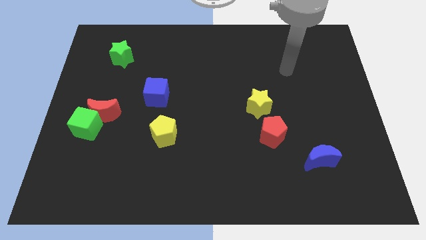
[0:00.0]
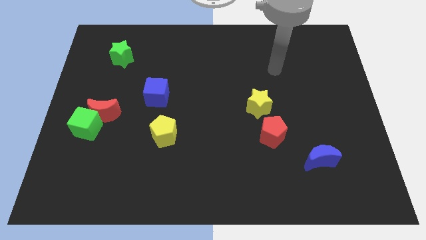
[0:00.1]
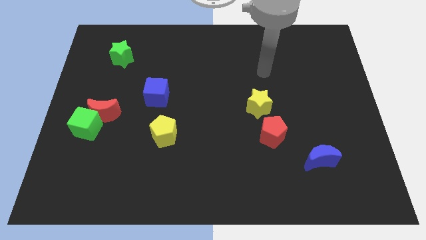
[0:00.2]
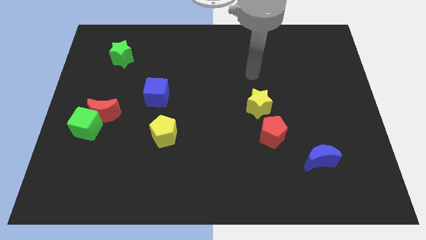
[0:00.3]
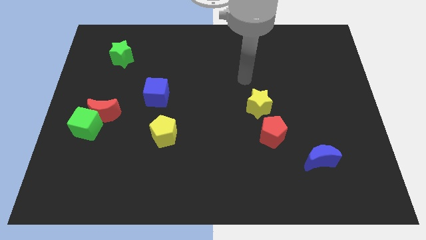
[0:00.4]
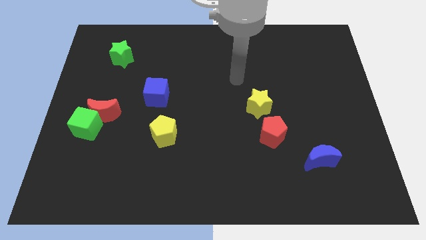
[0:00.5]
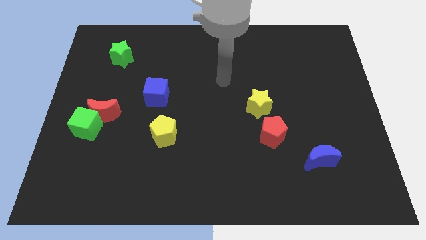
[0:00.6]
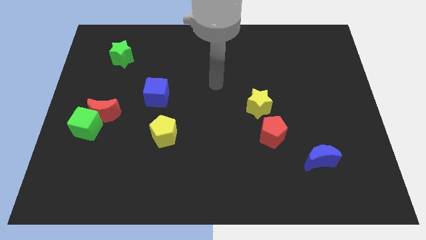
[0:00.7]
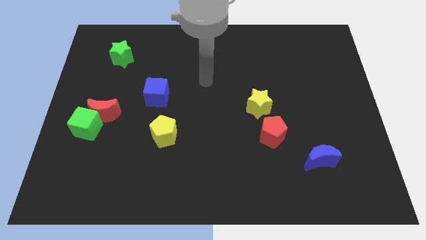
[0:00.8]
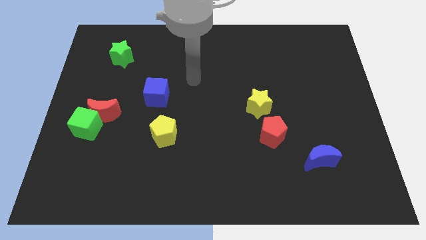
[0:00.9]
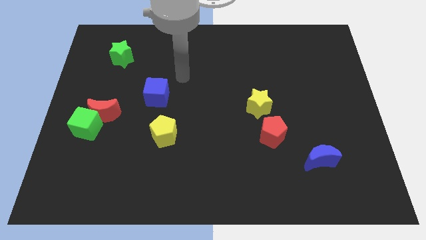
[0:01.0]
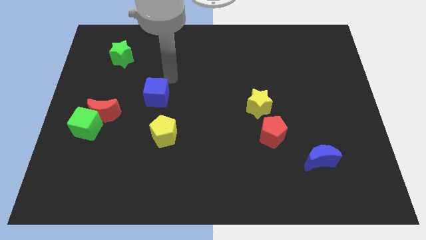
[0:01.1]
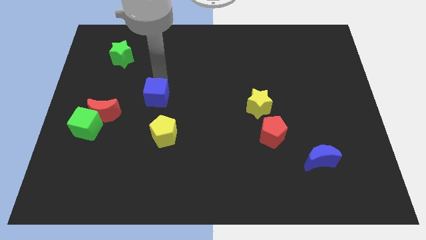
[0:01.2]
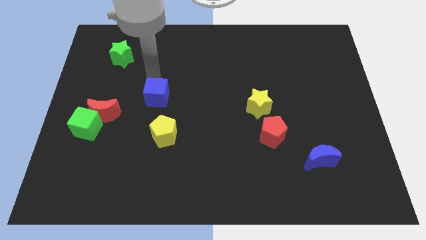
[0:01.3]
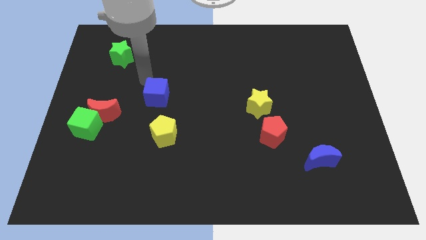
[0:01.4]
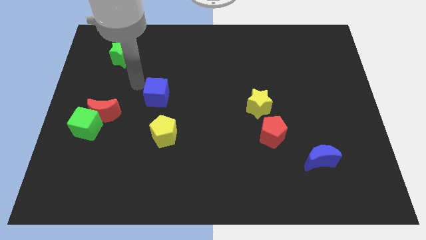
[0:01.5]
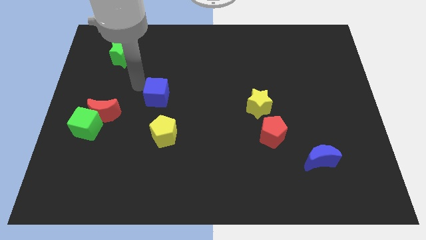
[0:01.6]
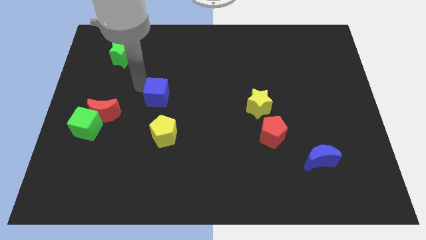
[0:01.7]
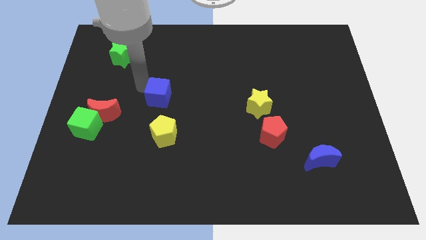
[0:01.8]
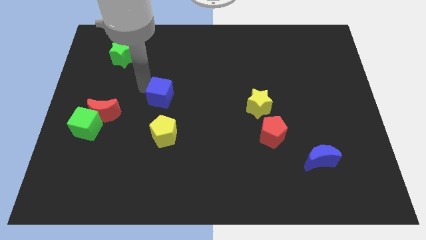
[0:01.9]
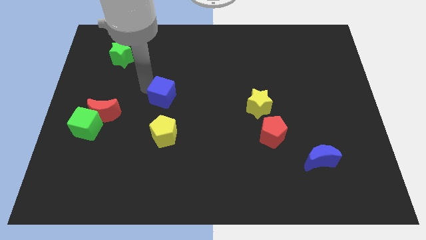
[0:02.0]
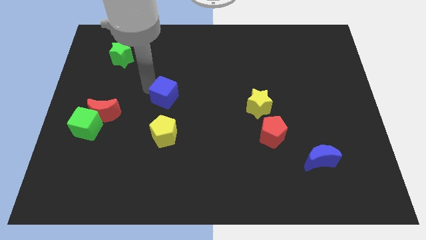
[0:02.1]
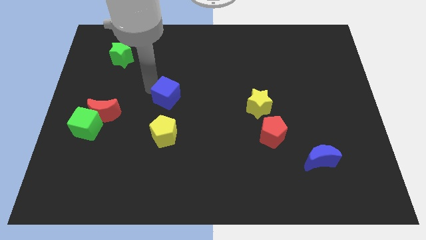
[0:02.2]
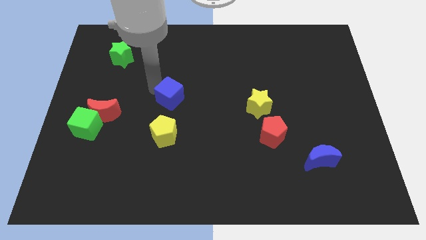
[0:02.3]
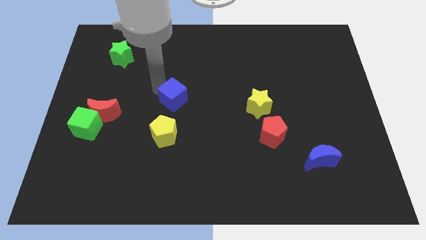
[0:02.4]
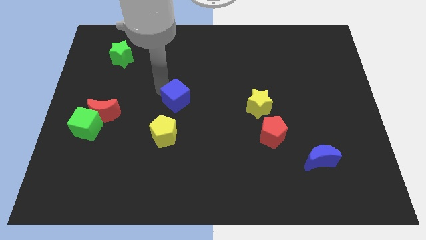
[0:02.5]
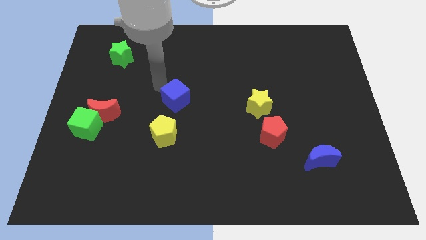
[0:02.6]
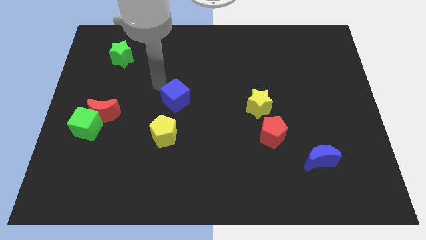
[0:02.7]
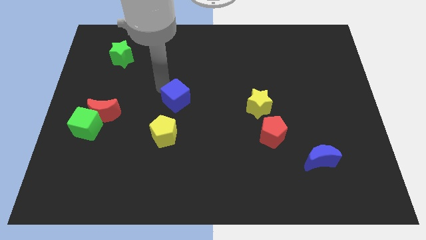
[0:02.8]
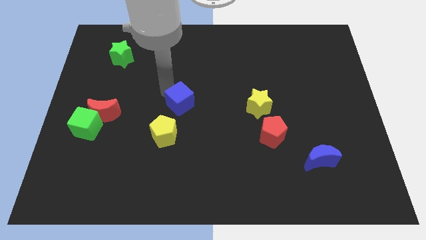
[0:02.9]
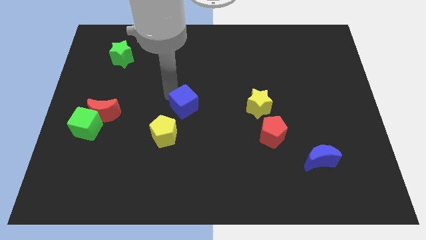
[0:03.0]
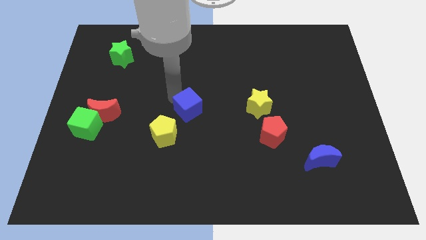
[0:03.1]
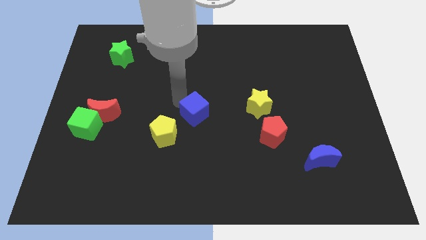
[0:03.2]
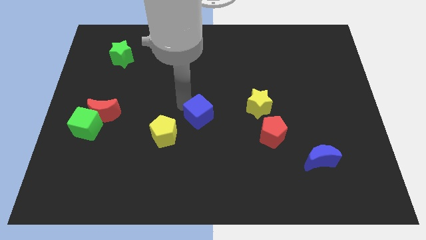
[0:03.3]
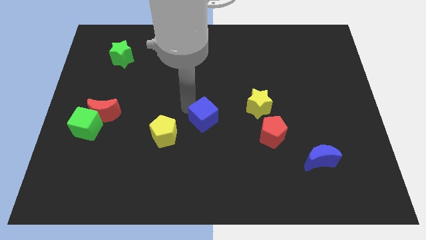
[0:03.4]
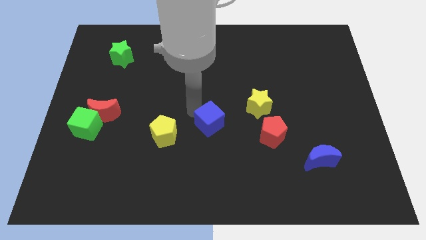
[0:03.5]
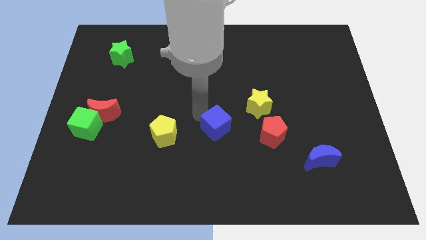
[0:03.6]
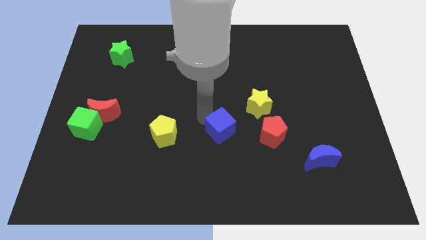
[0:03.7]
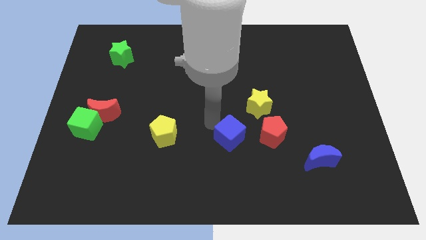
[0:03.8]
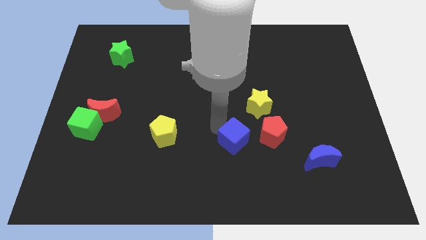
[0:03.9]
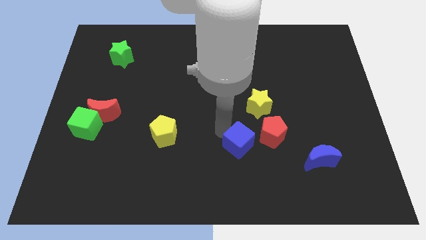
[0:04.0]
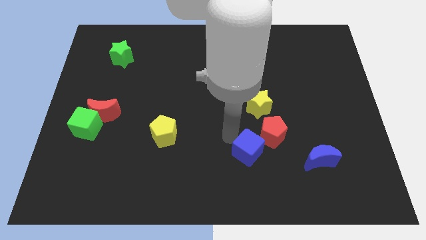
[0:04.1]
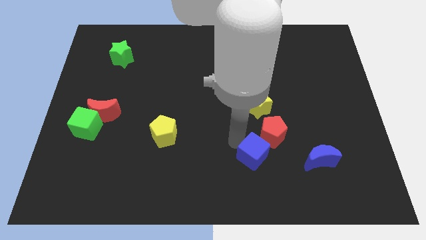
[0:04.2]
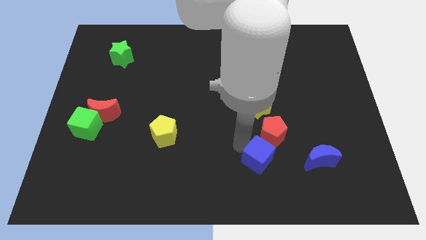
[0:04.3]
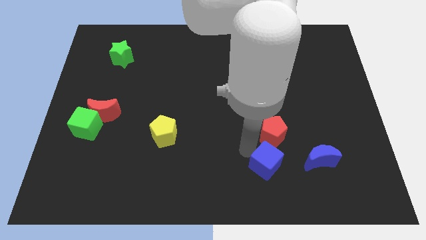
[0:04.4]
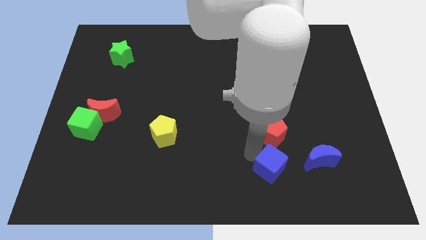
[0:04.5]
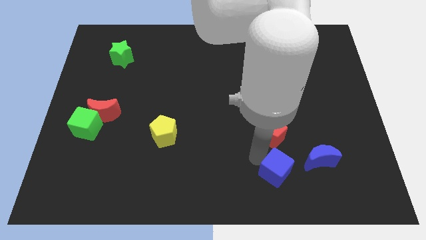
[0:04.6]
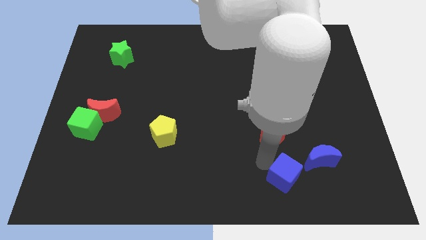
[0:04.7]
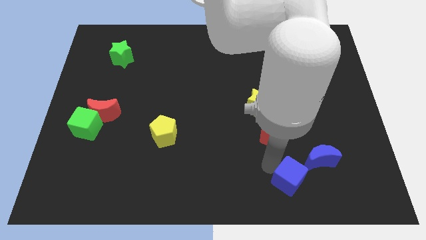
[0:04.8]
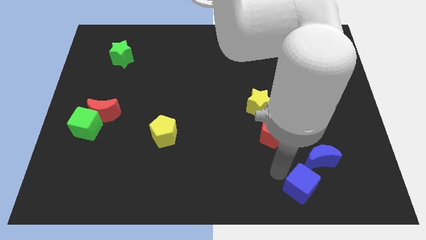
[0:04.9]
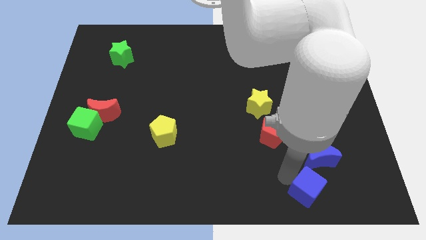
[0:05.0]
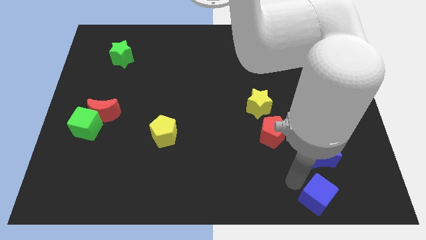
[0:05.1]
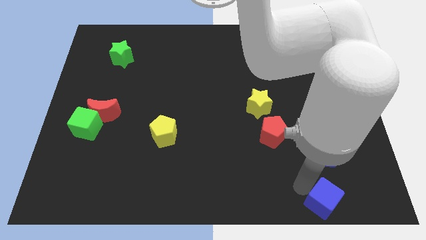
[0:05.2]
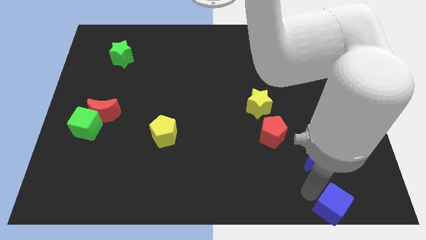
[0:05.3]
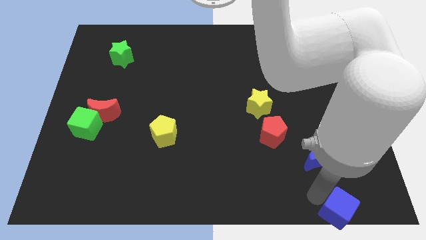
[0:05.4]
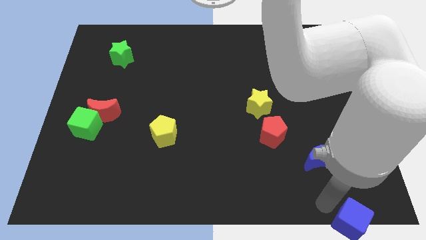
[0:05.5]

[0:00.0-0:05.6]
move the blue cube to the bottom right corner

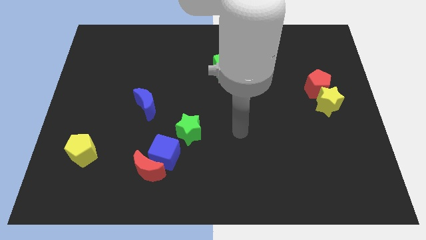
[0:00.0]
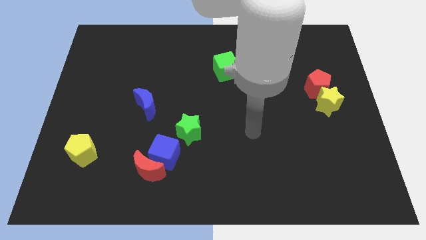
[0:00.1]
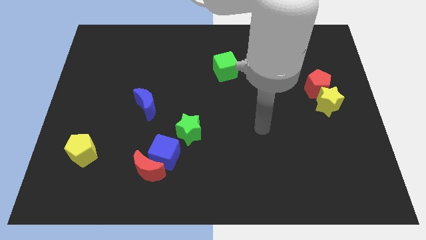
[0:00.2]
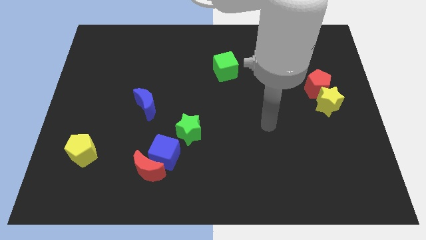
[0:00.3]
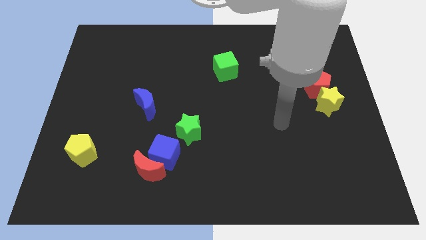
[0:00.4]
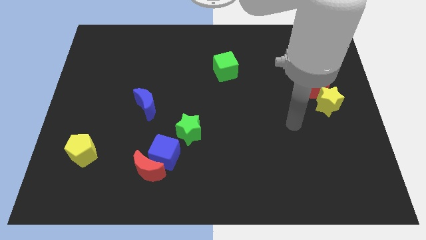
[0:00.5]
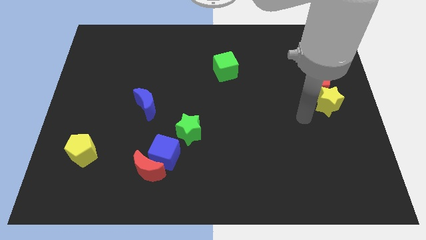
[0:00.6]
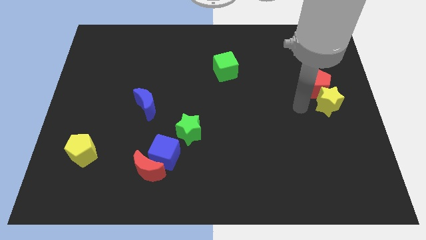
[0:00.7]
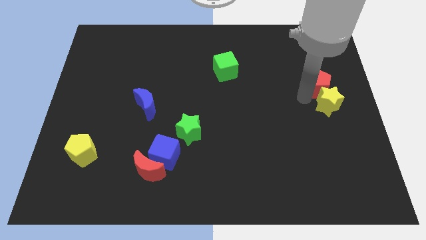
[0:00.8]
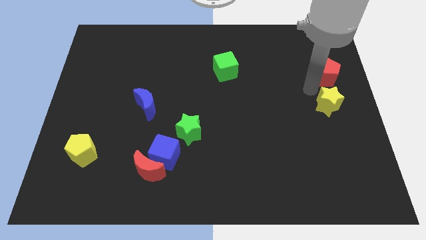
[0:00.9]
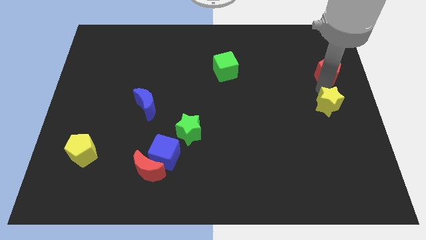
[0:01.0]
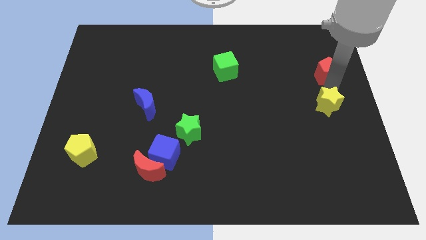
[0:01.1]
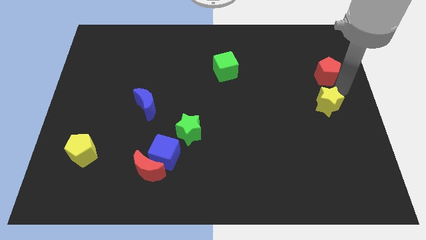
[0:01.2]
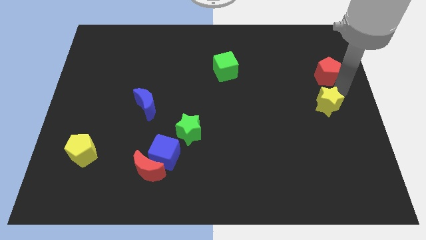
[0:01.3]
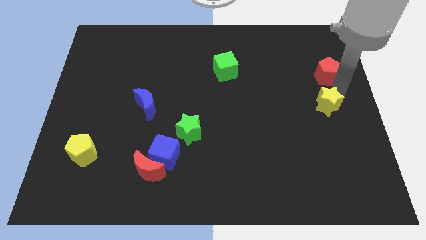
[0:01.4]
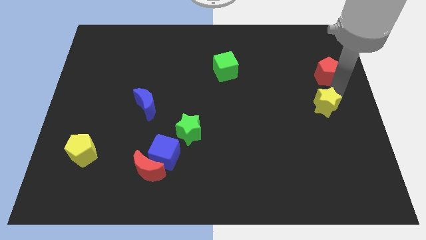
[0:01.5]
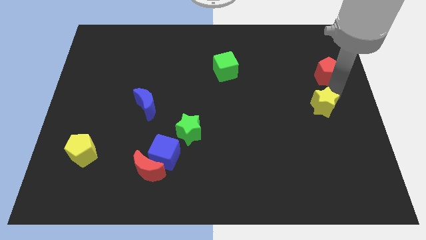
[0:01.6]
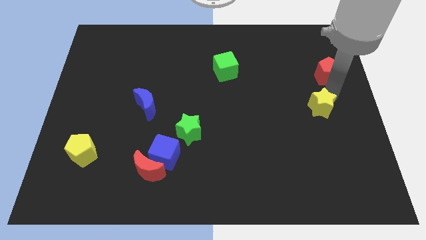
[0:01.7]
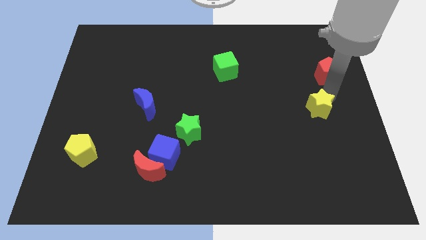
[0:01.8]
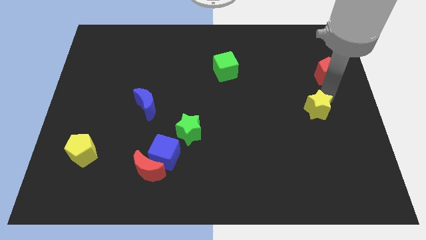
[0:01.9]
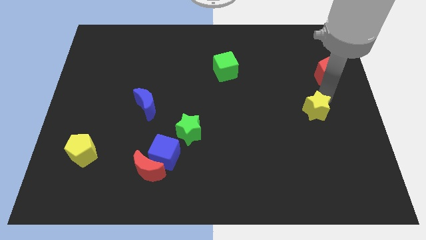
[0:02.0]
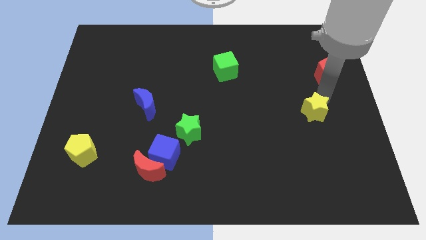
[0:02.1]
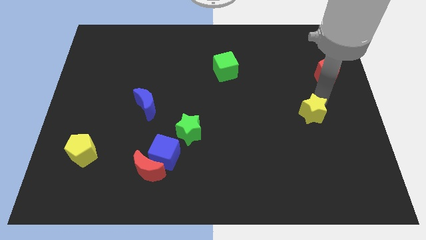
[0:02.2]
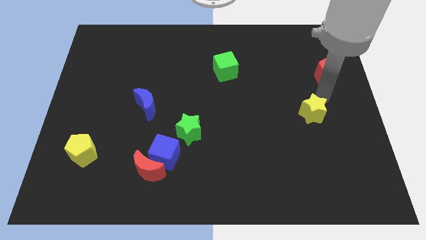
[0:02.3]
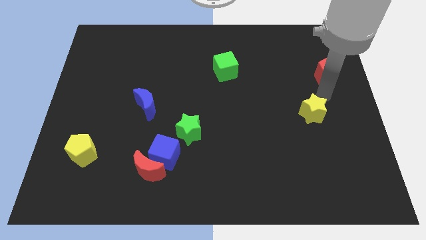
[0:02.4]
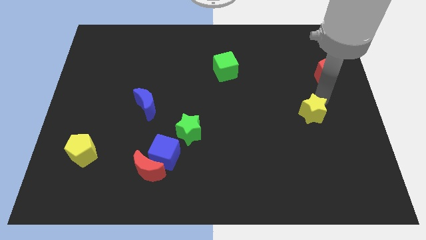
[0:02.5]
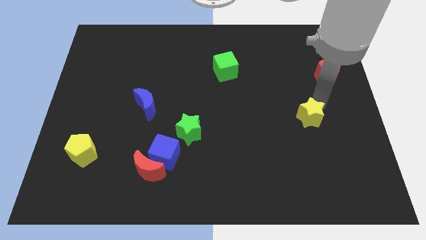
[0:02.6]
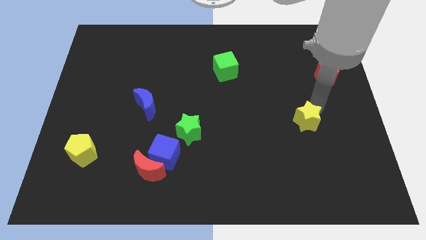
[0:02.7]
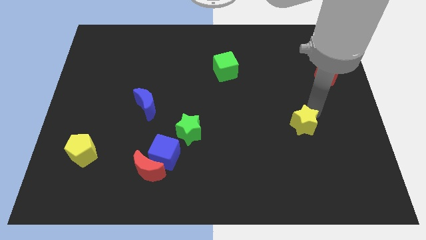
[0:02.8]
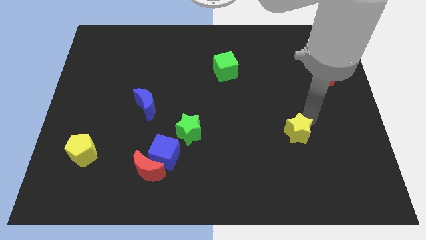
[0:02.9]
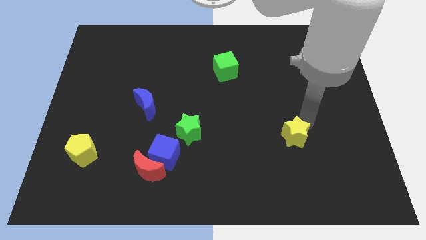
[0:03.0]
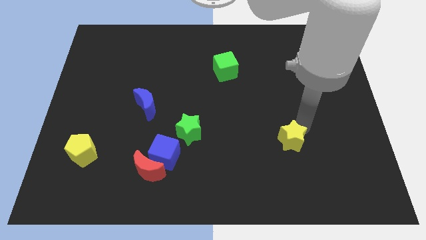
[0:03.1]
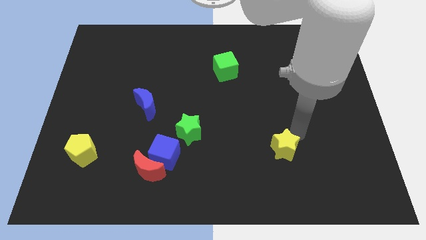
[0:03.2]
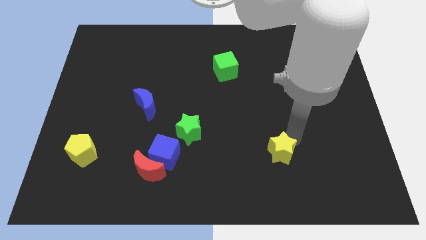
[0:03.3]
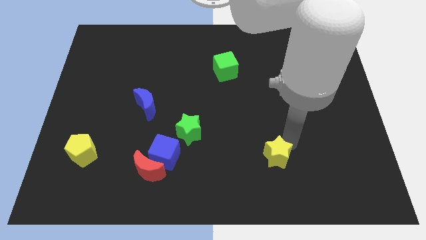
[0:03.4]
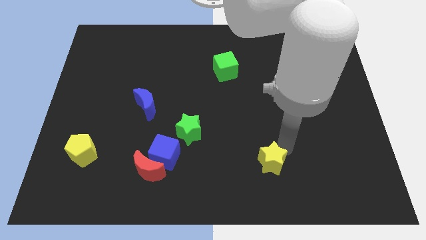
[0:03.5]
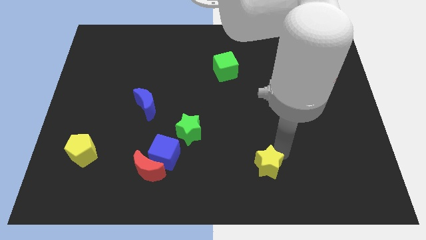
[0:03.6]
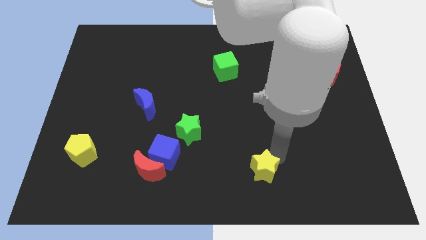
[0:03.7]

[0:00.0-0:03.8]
move the yellow star to the bottom side
